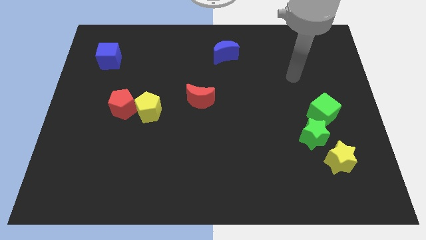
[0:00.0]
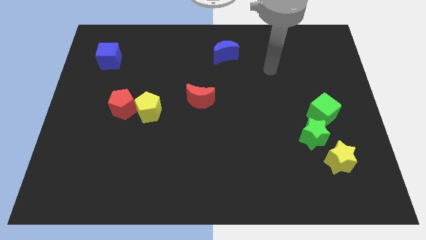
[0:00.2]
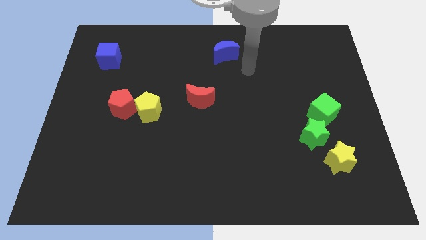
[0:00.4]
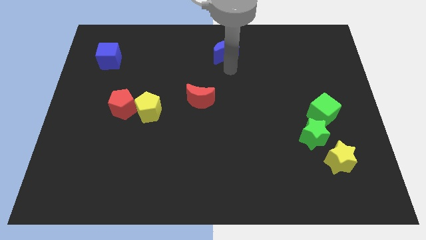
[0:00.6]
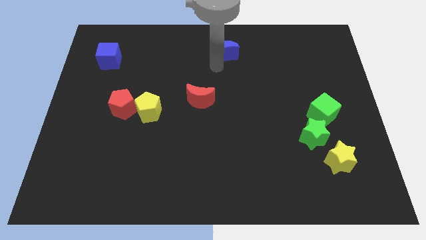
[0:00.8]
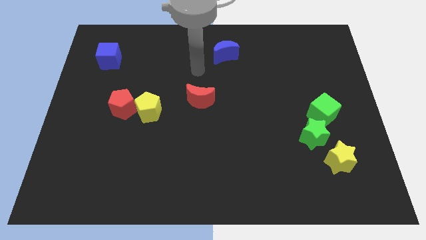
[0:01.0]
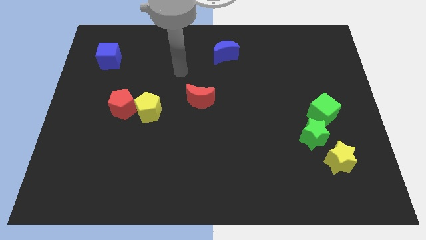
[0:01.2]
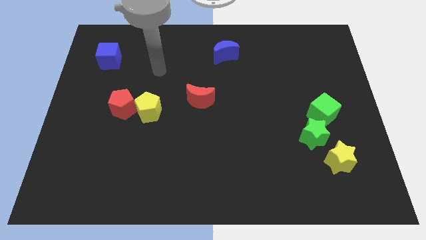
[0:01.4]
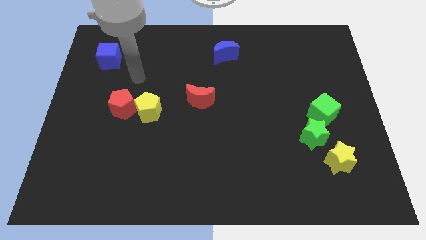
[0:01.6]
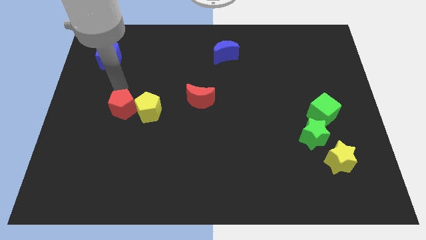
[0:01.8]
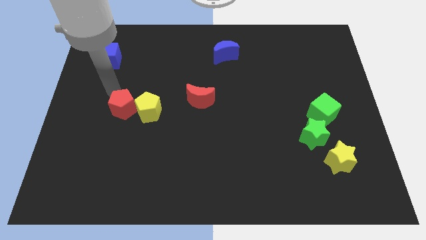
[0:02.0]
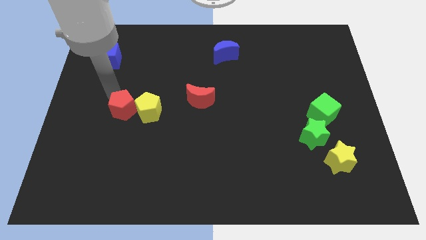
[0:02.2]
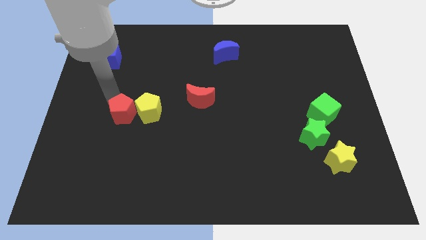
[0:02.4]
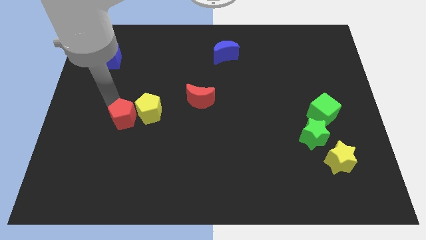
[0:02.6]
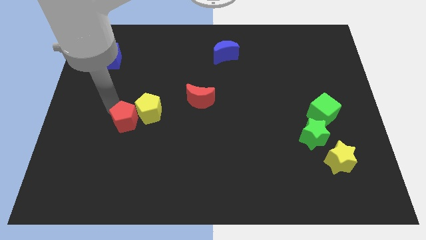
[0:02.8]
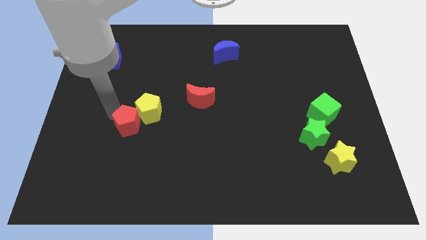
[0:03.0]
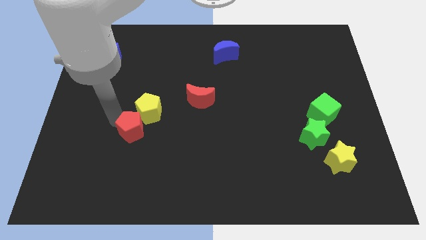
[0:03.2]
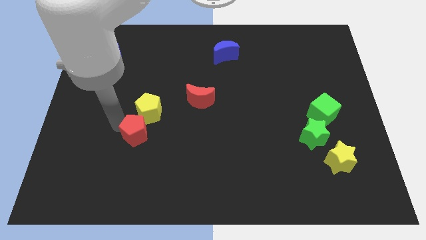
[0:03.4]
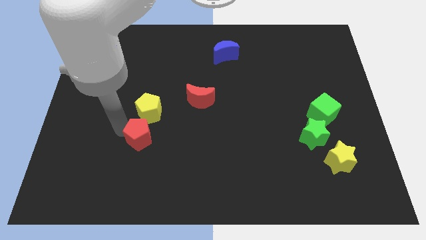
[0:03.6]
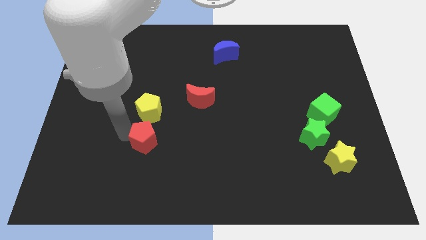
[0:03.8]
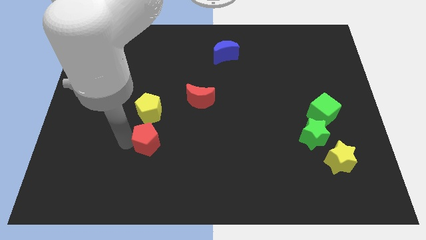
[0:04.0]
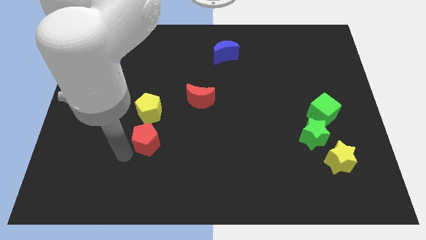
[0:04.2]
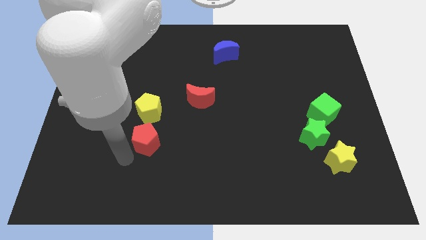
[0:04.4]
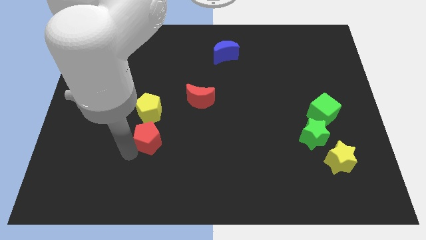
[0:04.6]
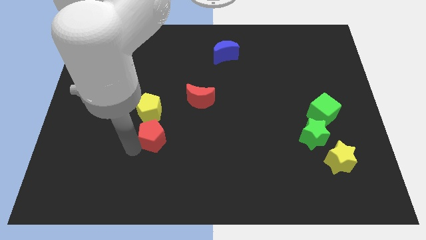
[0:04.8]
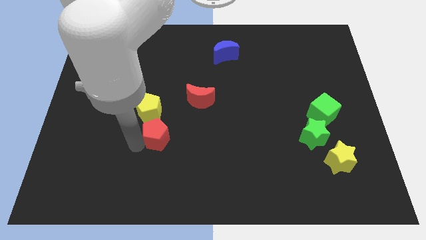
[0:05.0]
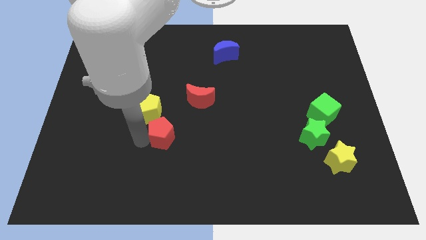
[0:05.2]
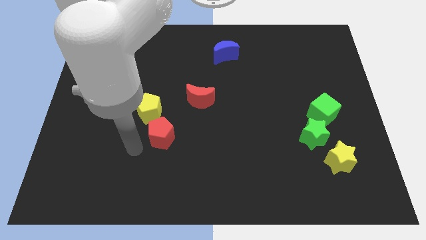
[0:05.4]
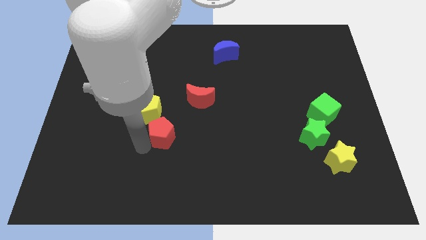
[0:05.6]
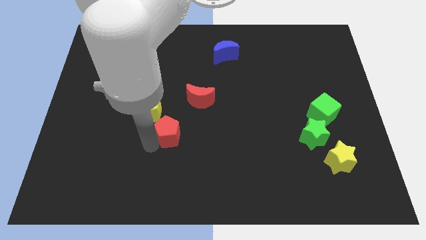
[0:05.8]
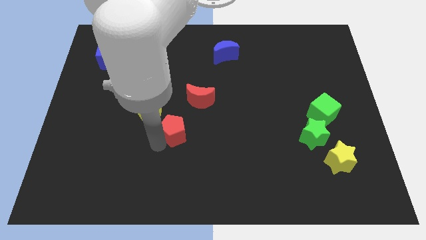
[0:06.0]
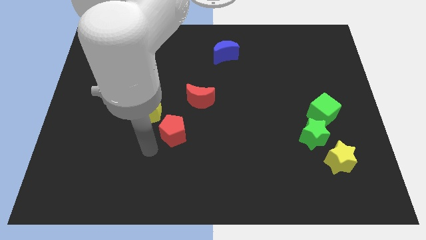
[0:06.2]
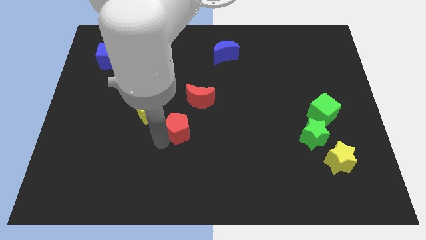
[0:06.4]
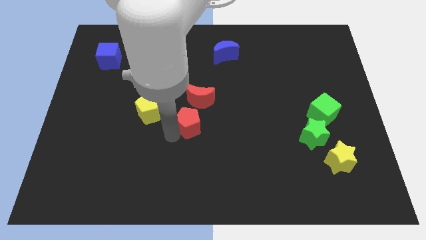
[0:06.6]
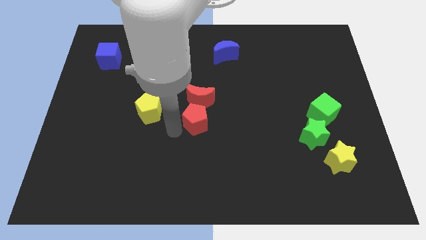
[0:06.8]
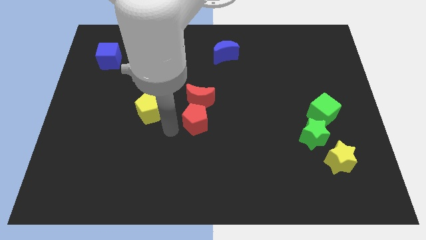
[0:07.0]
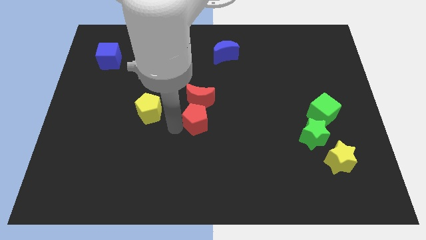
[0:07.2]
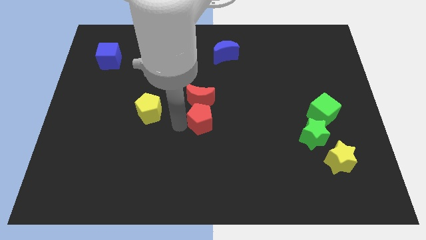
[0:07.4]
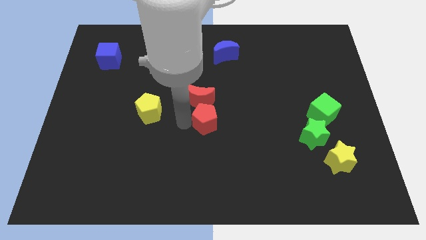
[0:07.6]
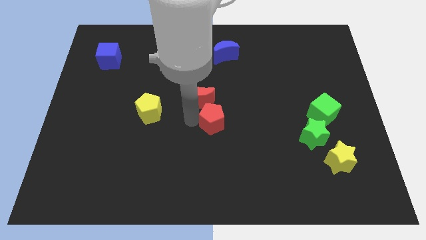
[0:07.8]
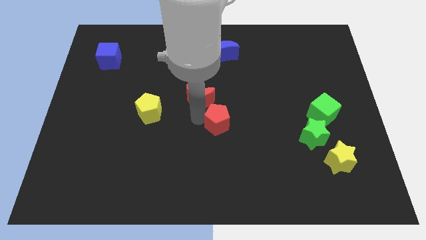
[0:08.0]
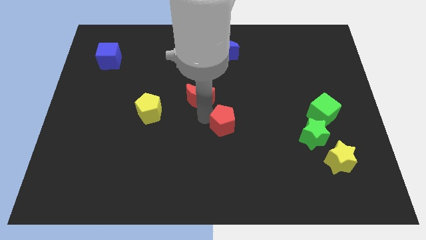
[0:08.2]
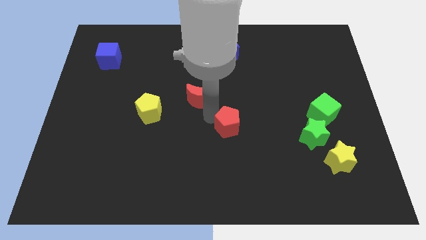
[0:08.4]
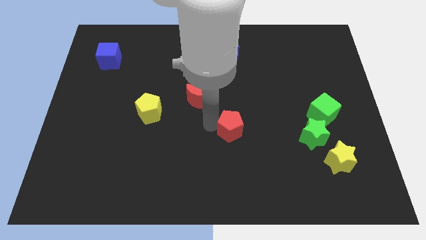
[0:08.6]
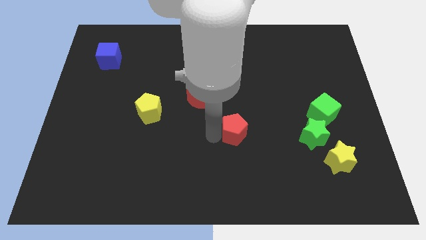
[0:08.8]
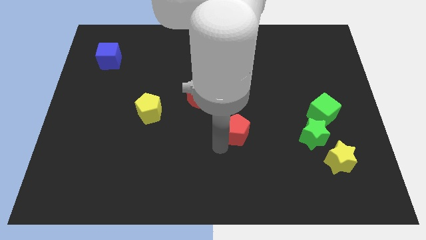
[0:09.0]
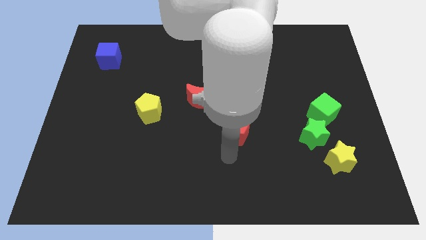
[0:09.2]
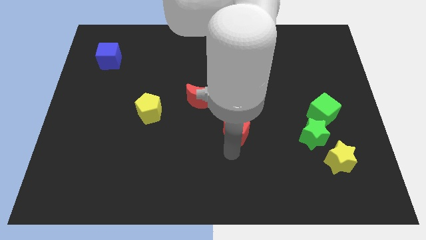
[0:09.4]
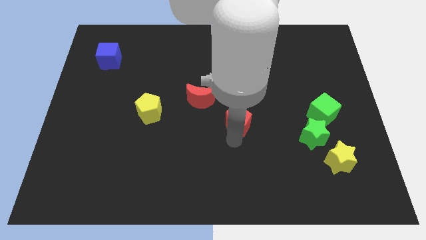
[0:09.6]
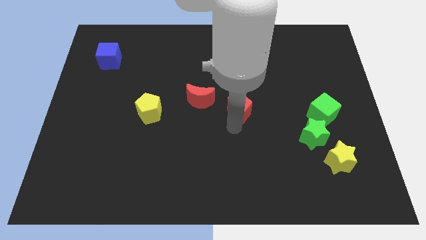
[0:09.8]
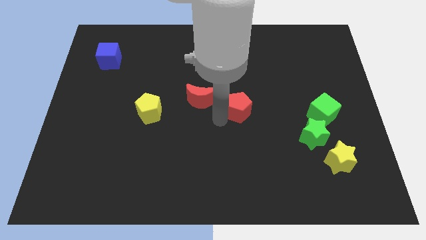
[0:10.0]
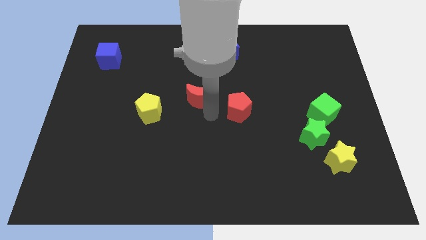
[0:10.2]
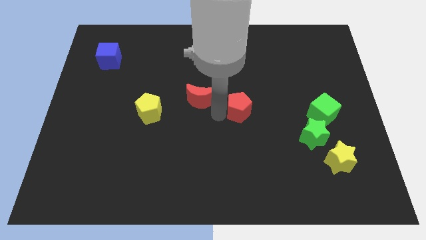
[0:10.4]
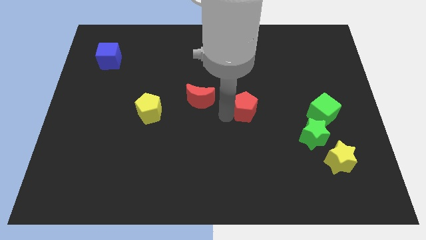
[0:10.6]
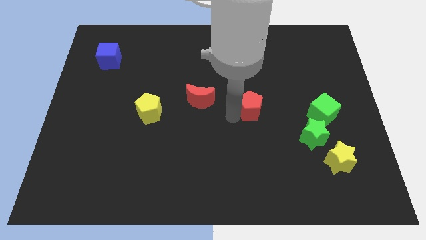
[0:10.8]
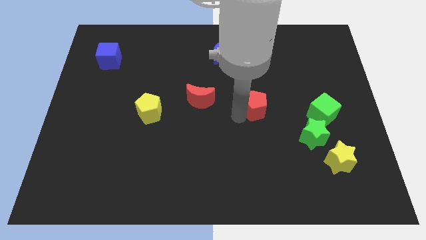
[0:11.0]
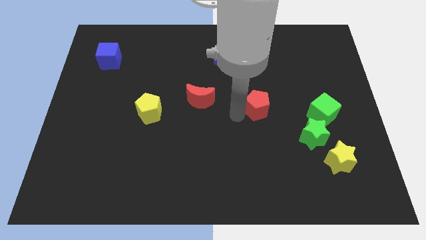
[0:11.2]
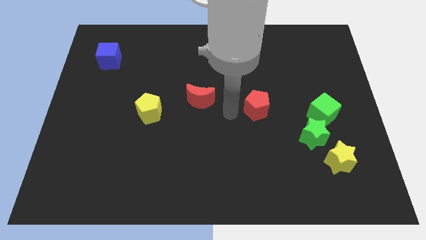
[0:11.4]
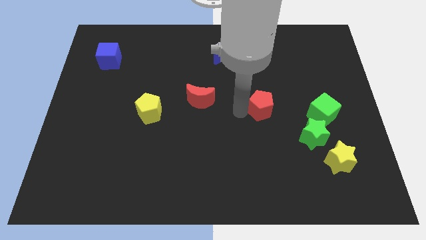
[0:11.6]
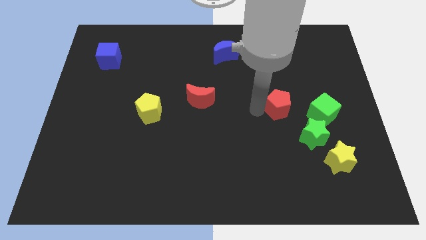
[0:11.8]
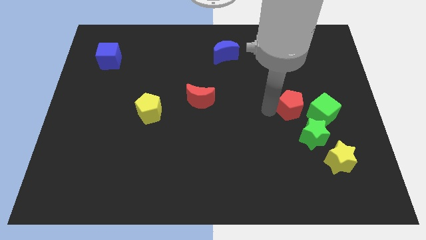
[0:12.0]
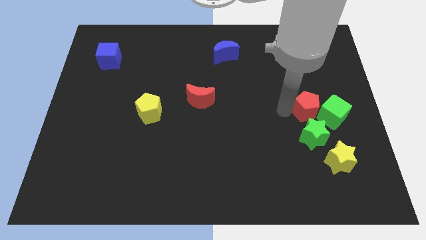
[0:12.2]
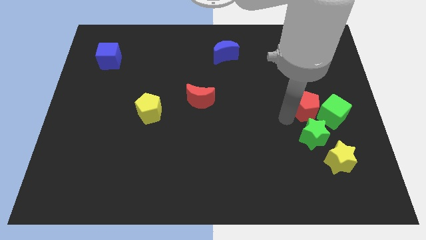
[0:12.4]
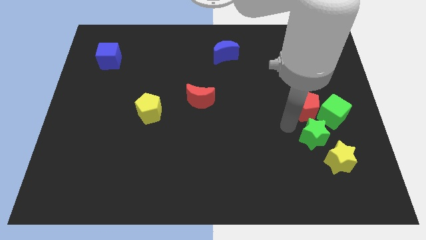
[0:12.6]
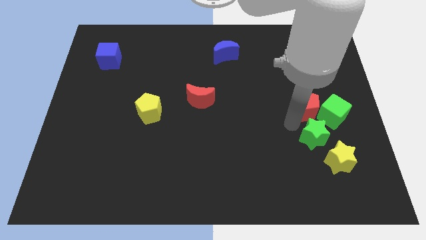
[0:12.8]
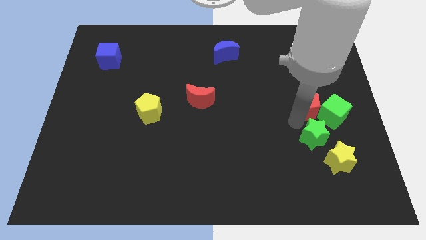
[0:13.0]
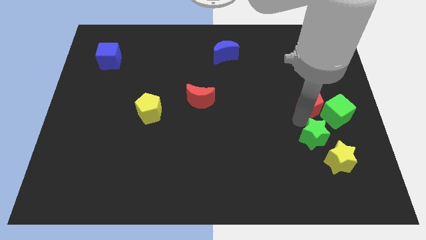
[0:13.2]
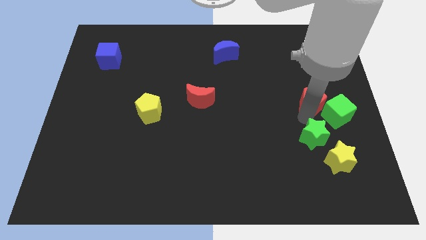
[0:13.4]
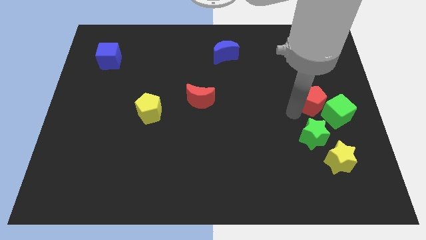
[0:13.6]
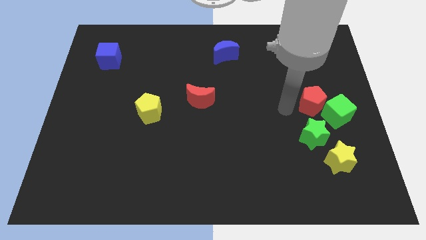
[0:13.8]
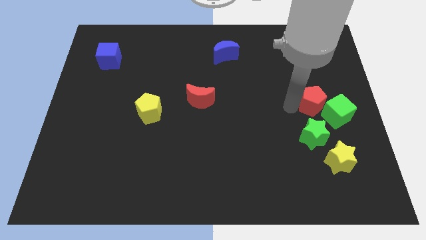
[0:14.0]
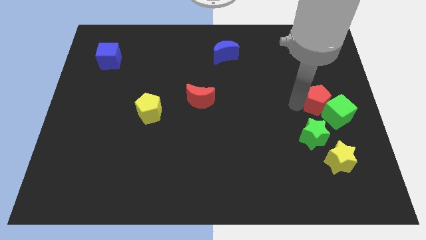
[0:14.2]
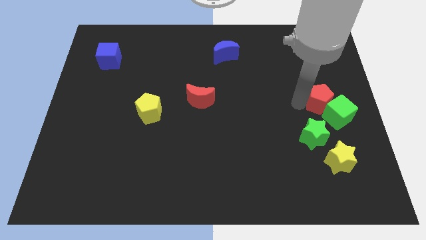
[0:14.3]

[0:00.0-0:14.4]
put the red pentagon to the right side

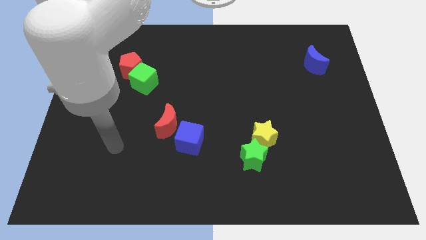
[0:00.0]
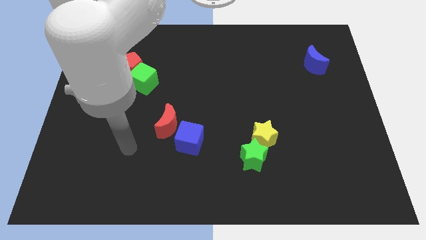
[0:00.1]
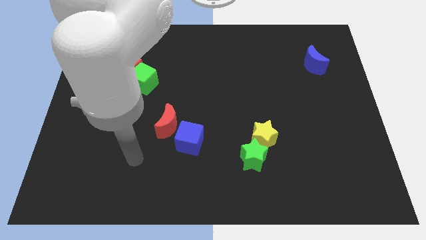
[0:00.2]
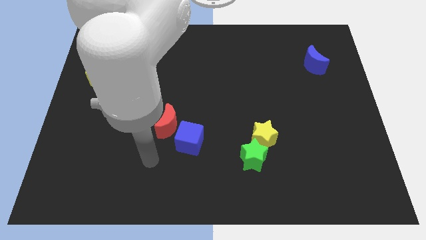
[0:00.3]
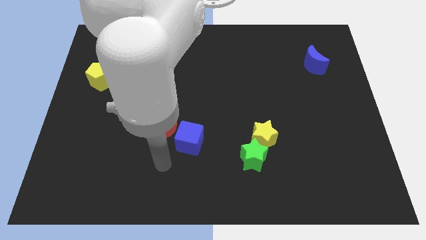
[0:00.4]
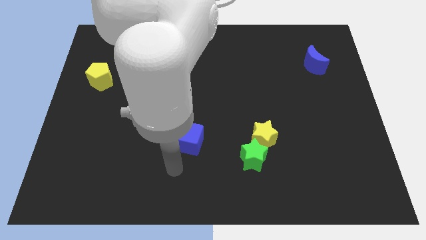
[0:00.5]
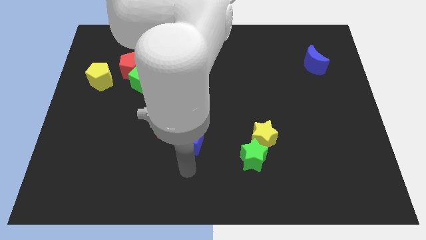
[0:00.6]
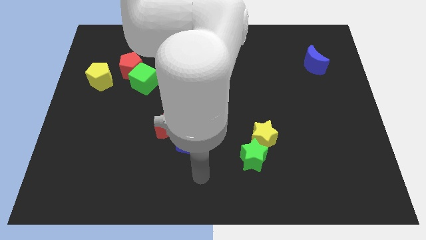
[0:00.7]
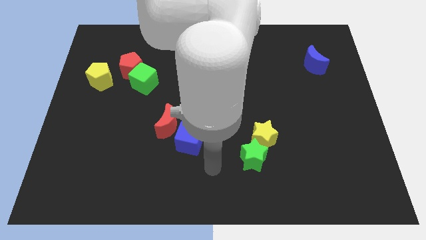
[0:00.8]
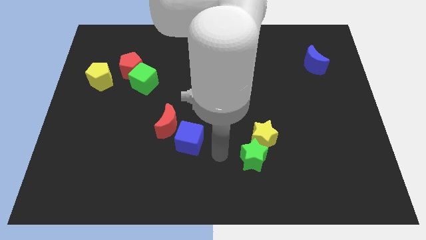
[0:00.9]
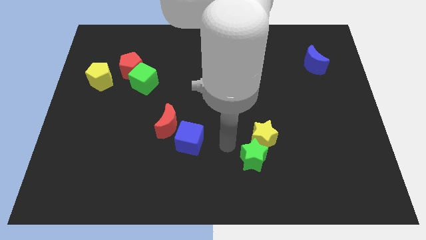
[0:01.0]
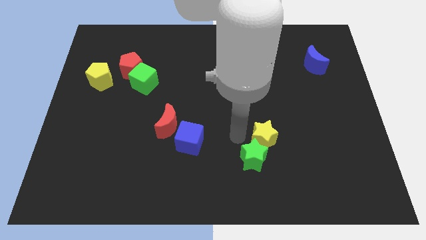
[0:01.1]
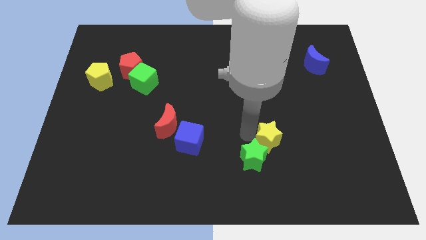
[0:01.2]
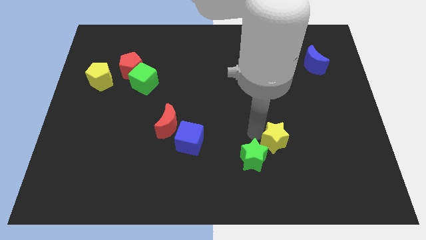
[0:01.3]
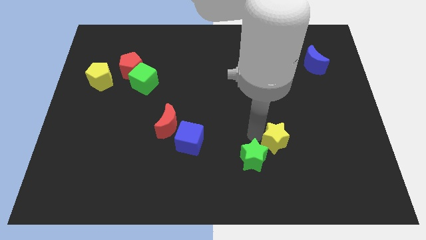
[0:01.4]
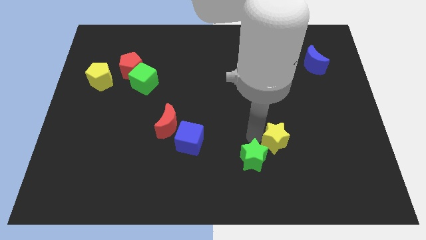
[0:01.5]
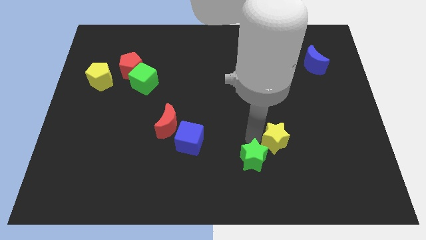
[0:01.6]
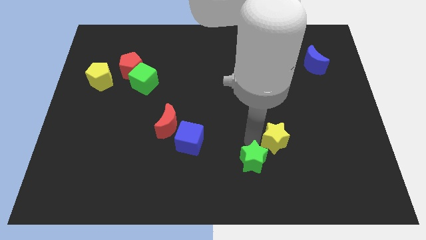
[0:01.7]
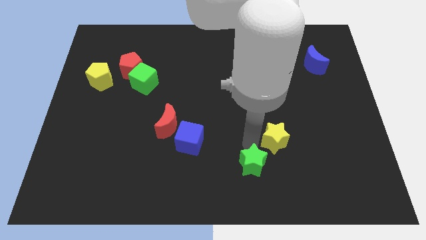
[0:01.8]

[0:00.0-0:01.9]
put the green star to the bottom side
